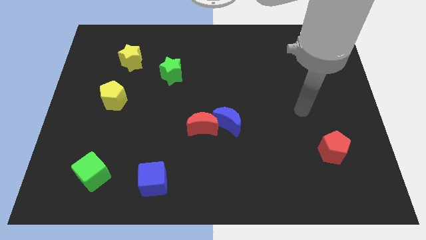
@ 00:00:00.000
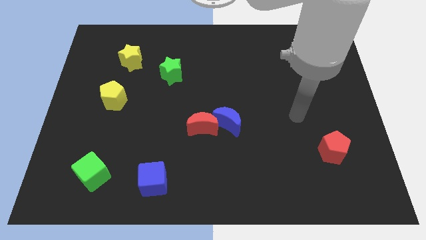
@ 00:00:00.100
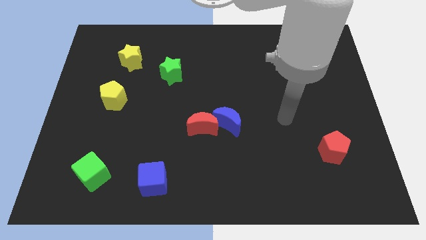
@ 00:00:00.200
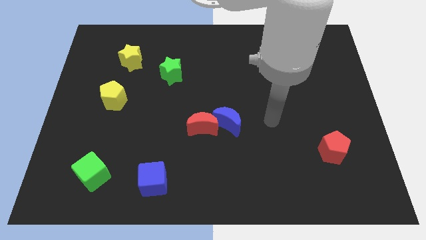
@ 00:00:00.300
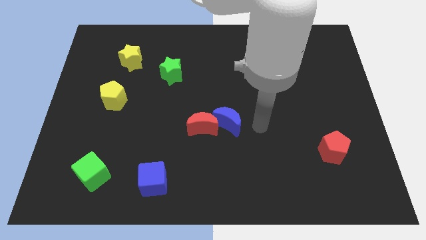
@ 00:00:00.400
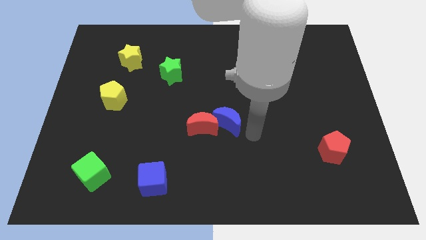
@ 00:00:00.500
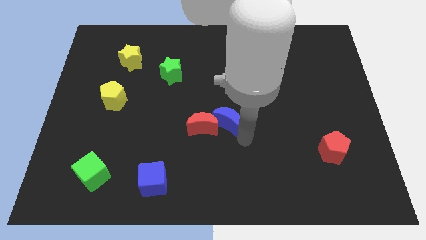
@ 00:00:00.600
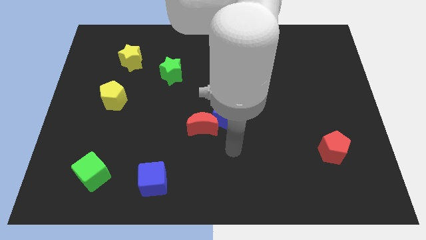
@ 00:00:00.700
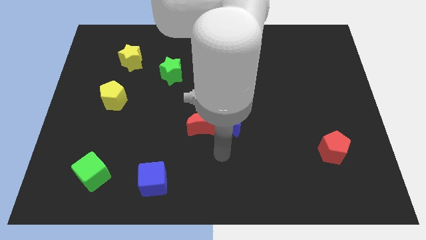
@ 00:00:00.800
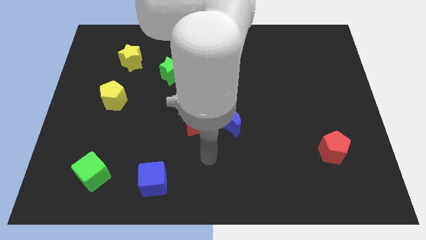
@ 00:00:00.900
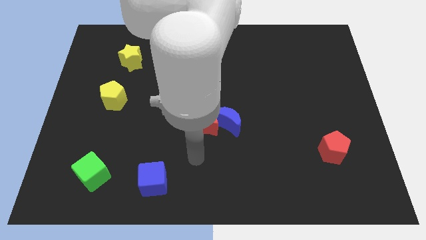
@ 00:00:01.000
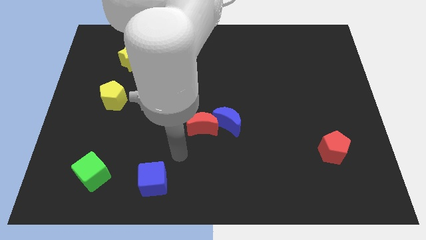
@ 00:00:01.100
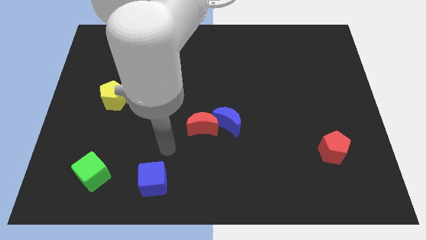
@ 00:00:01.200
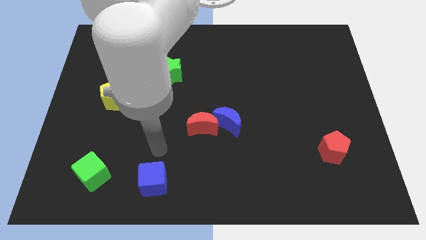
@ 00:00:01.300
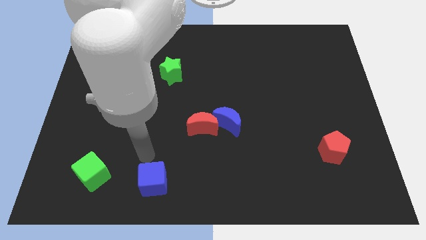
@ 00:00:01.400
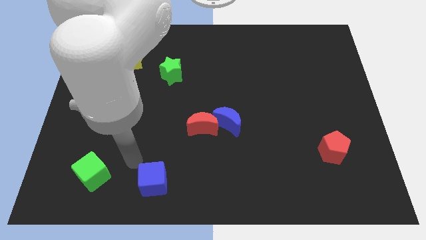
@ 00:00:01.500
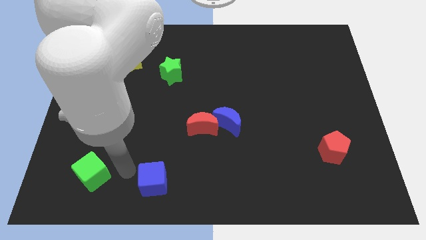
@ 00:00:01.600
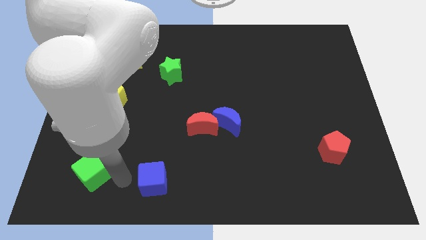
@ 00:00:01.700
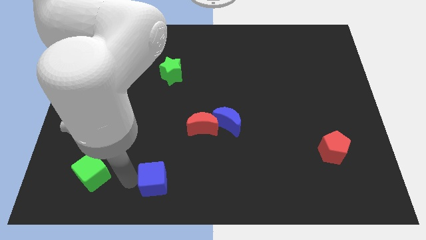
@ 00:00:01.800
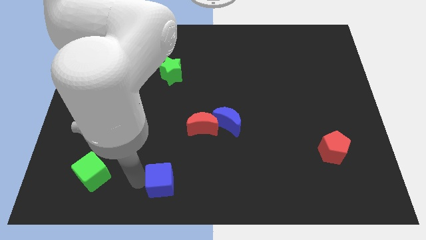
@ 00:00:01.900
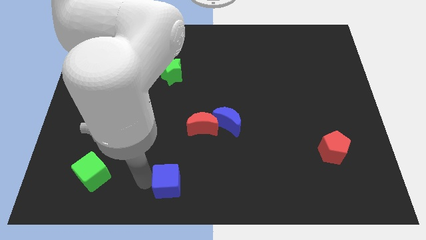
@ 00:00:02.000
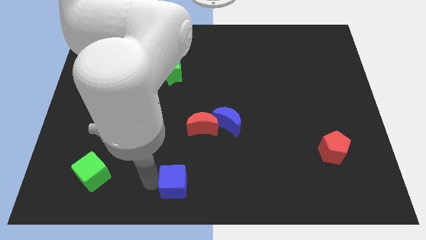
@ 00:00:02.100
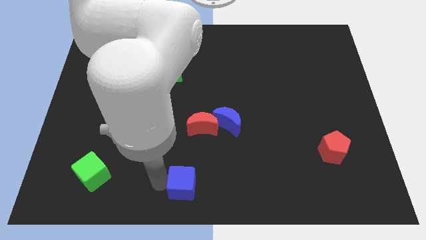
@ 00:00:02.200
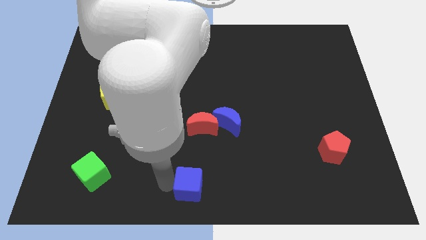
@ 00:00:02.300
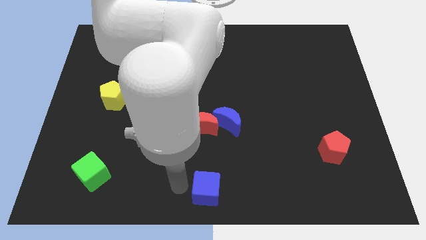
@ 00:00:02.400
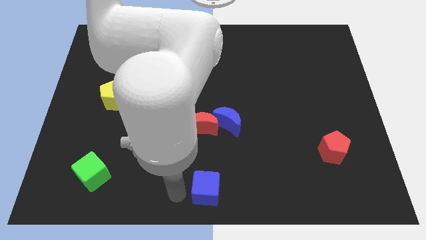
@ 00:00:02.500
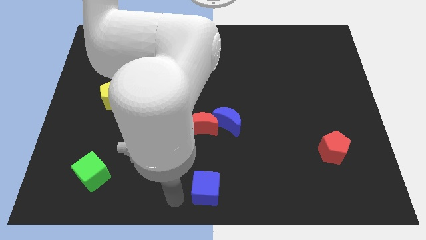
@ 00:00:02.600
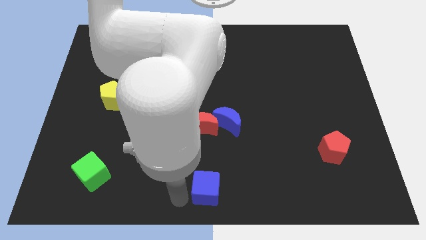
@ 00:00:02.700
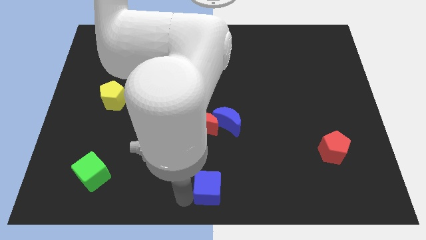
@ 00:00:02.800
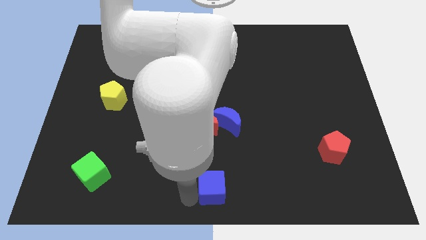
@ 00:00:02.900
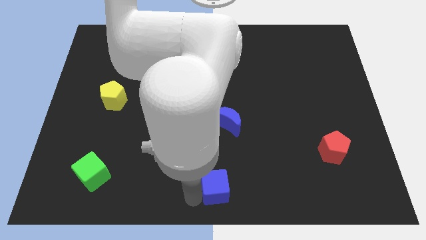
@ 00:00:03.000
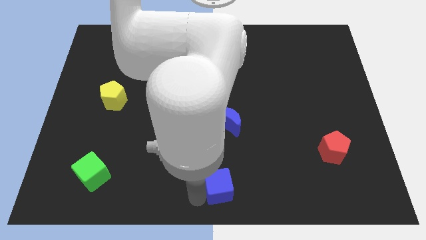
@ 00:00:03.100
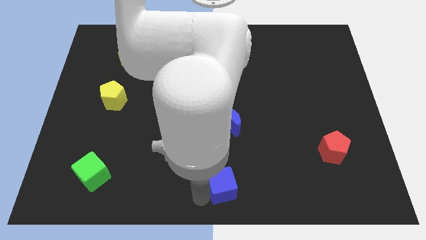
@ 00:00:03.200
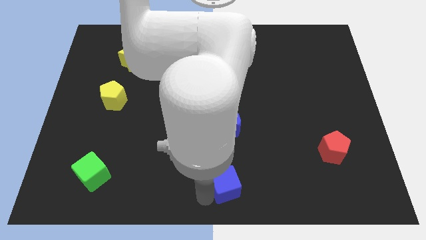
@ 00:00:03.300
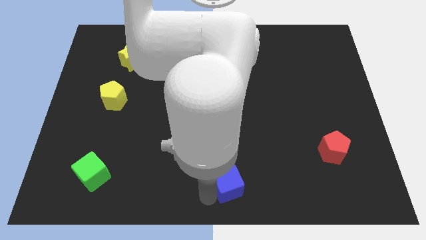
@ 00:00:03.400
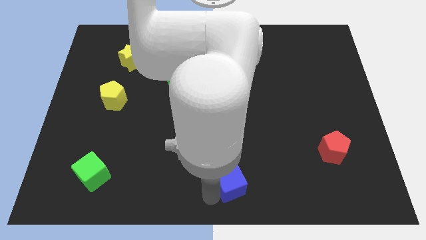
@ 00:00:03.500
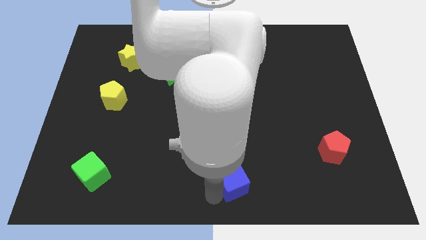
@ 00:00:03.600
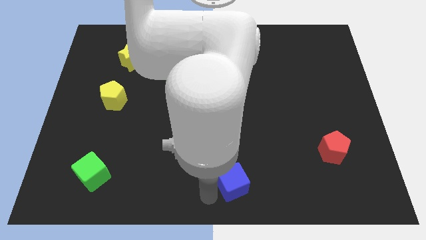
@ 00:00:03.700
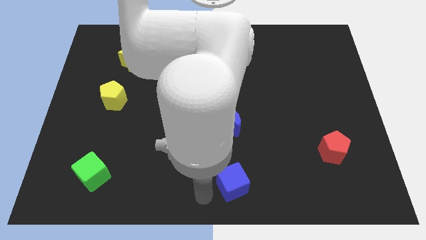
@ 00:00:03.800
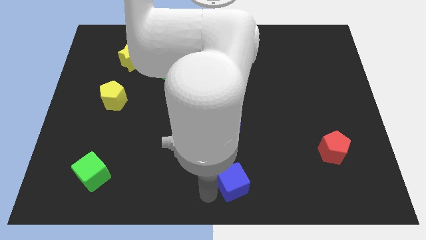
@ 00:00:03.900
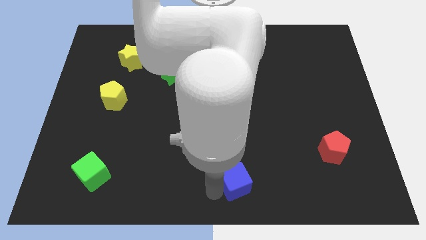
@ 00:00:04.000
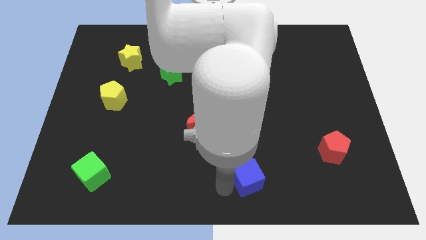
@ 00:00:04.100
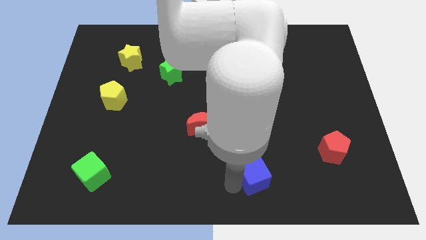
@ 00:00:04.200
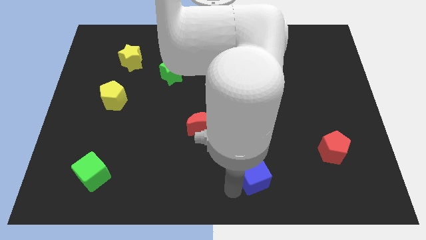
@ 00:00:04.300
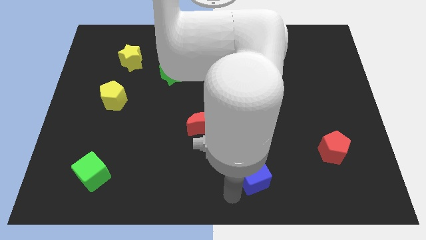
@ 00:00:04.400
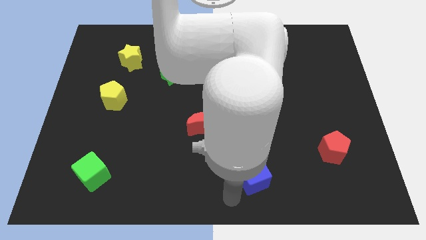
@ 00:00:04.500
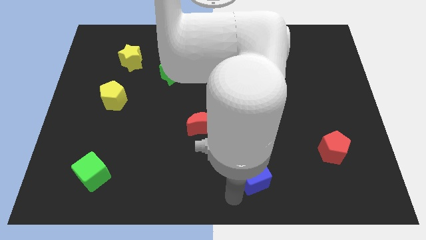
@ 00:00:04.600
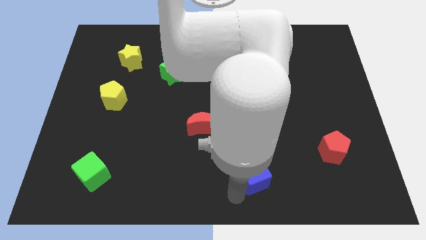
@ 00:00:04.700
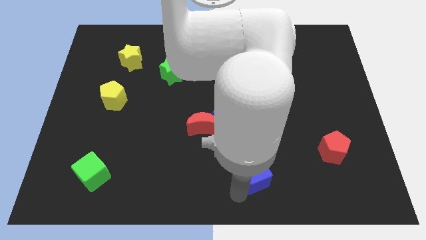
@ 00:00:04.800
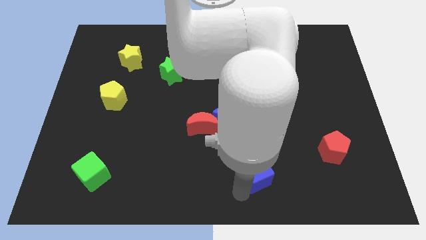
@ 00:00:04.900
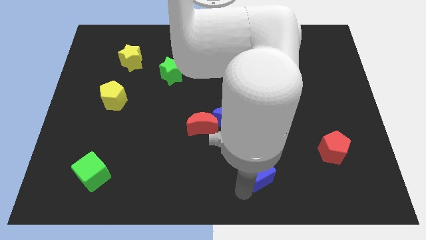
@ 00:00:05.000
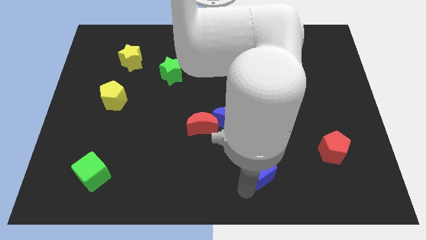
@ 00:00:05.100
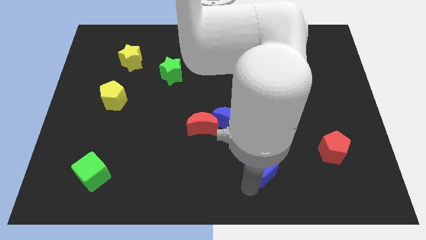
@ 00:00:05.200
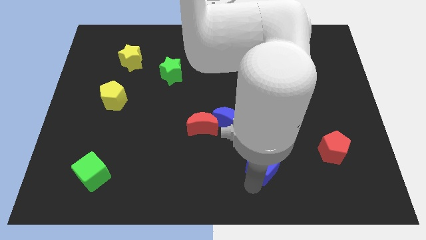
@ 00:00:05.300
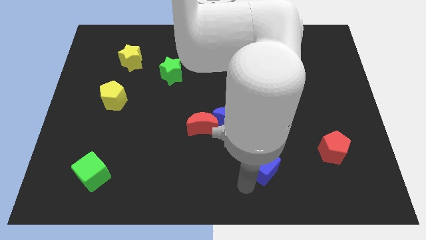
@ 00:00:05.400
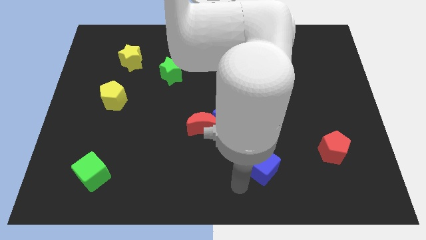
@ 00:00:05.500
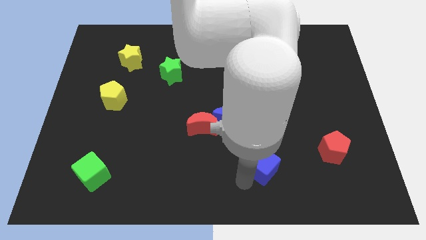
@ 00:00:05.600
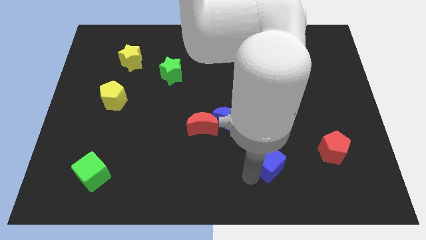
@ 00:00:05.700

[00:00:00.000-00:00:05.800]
slide the blue cube left of the red pentagon

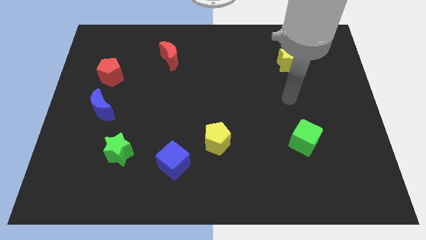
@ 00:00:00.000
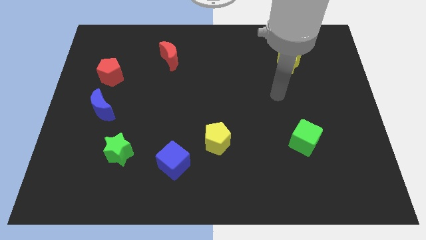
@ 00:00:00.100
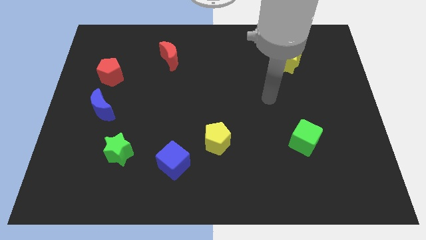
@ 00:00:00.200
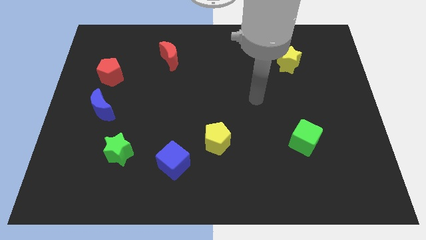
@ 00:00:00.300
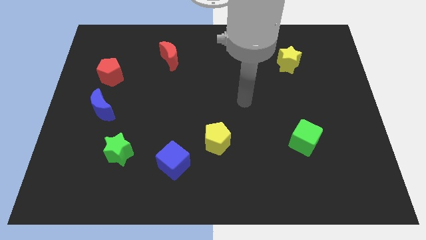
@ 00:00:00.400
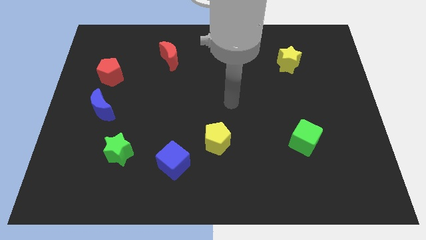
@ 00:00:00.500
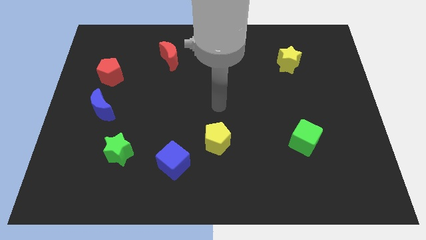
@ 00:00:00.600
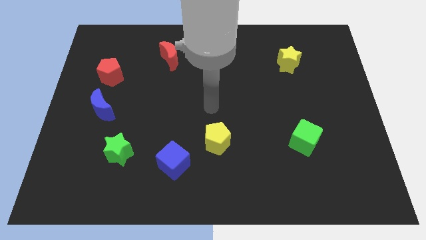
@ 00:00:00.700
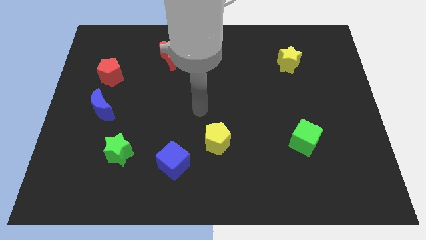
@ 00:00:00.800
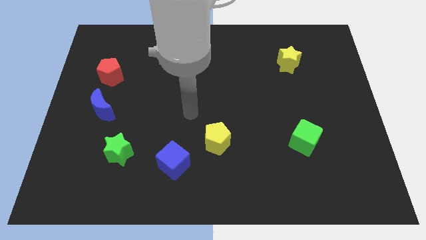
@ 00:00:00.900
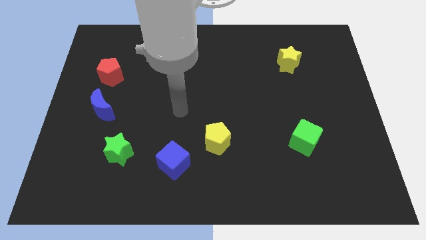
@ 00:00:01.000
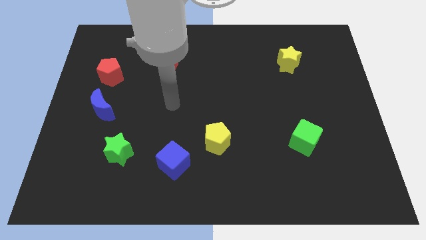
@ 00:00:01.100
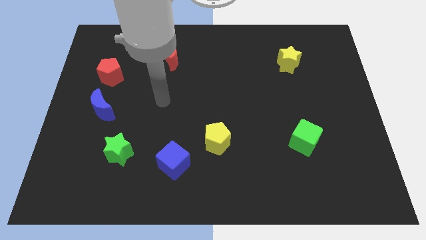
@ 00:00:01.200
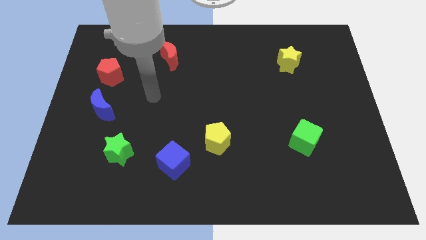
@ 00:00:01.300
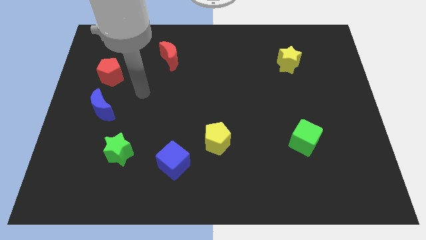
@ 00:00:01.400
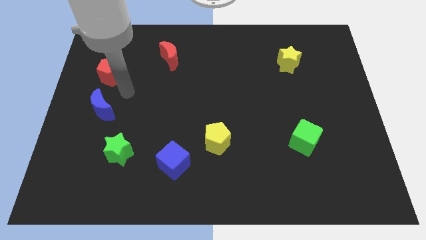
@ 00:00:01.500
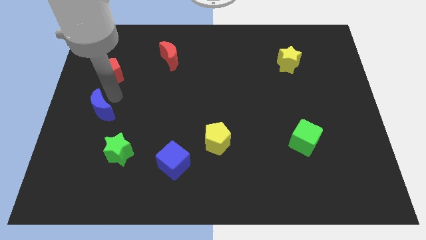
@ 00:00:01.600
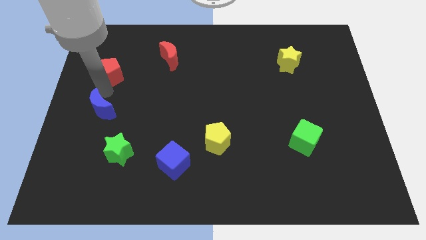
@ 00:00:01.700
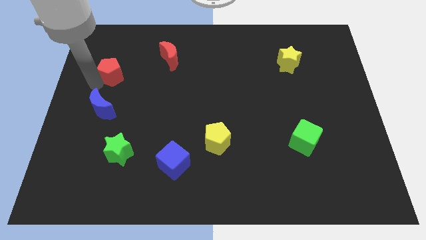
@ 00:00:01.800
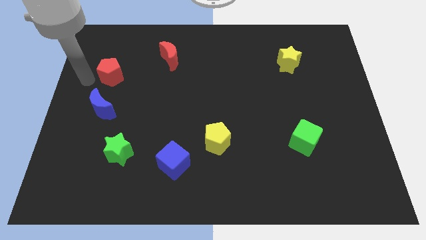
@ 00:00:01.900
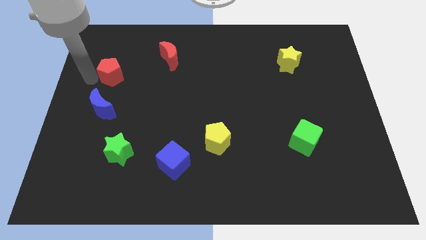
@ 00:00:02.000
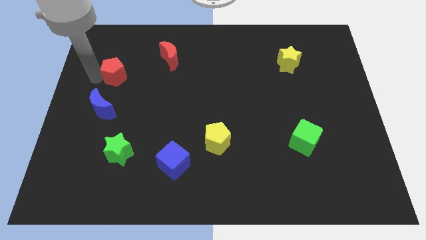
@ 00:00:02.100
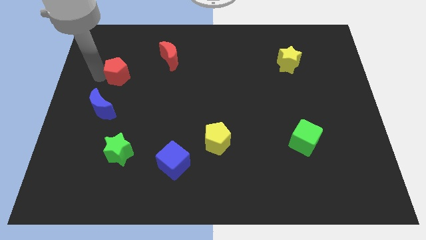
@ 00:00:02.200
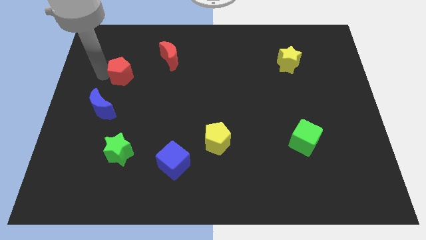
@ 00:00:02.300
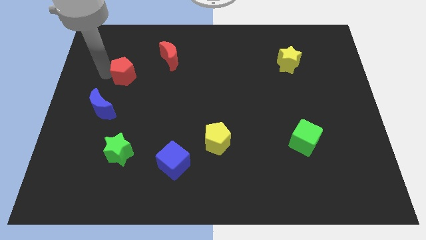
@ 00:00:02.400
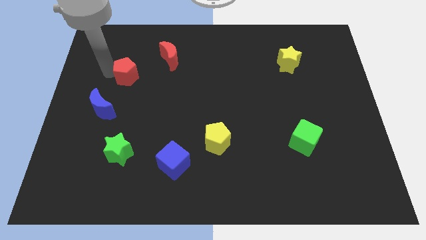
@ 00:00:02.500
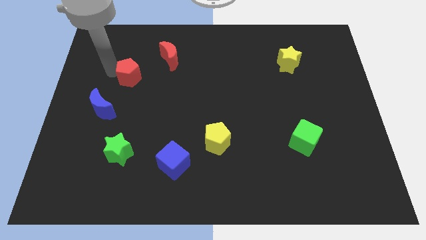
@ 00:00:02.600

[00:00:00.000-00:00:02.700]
move the red pentagon diagonally down and to the left of the red moon
